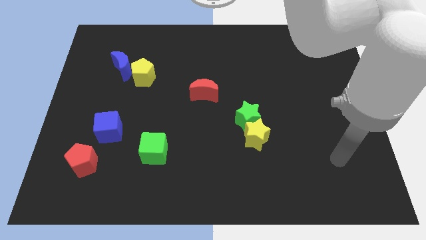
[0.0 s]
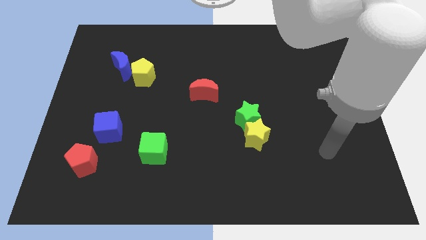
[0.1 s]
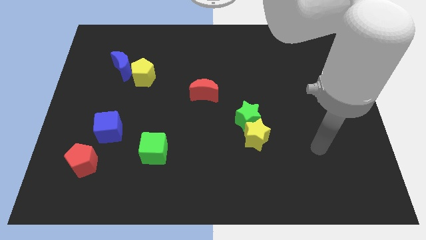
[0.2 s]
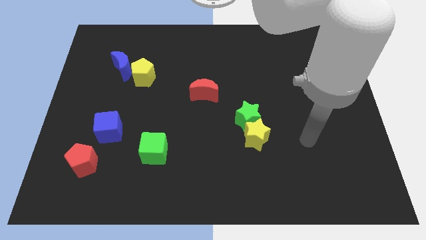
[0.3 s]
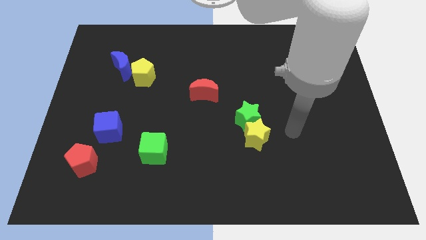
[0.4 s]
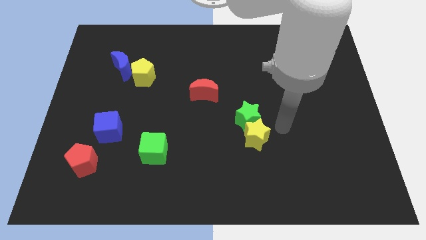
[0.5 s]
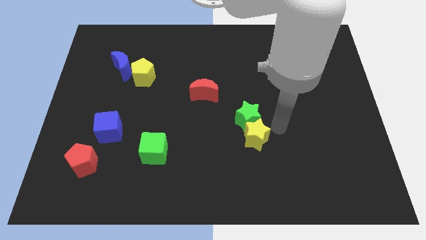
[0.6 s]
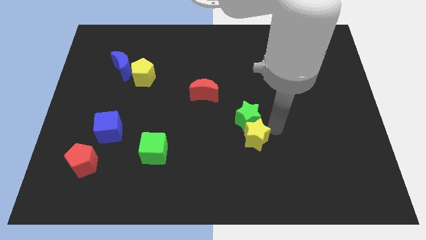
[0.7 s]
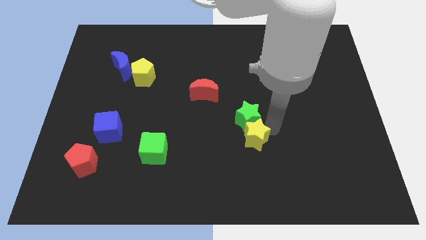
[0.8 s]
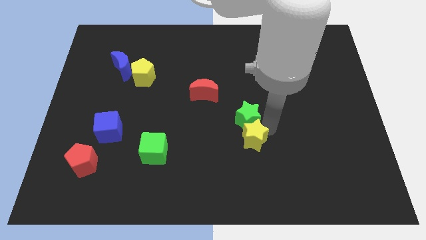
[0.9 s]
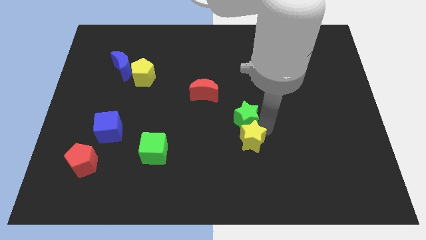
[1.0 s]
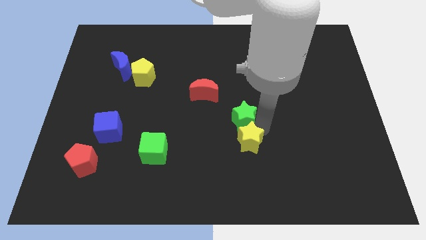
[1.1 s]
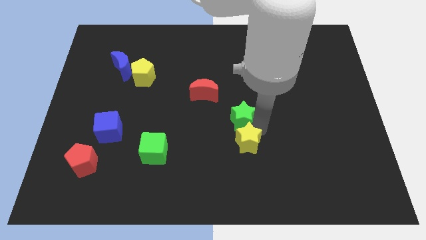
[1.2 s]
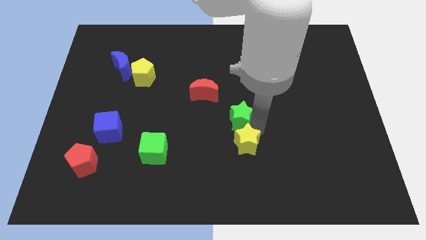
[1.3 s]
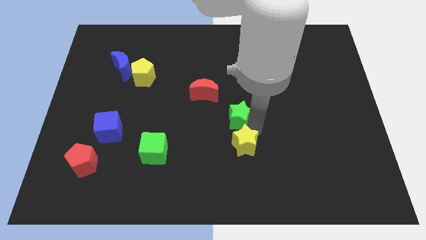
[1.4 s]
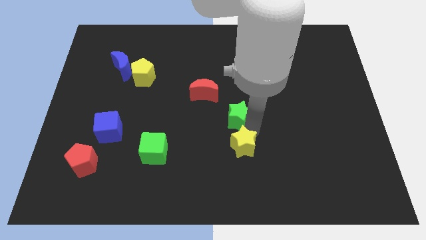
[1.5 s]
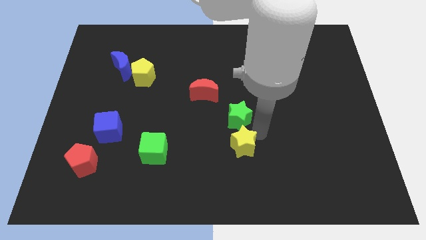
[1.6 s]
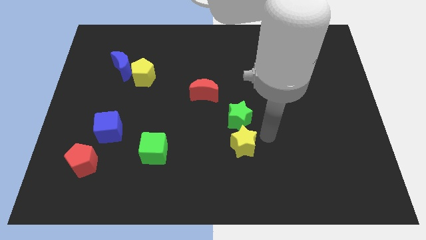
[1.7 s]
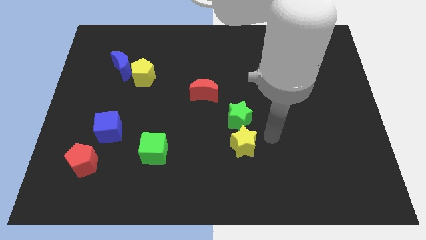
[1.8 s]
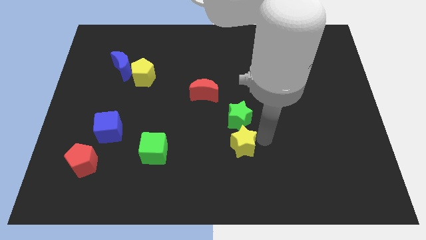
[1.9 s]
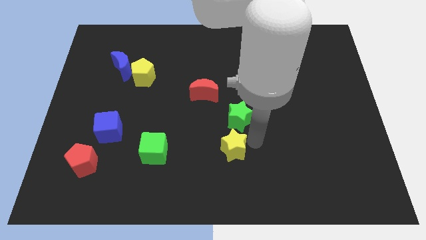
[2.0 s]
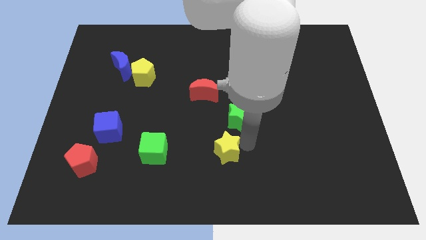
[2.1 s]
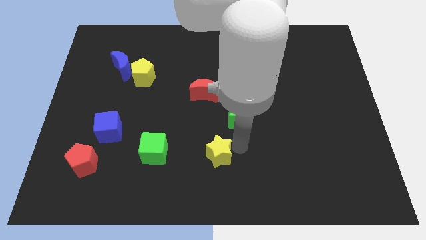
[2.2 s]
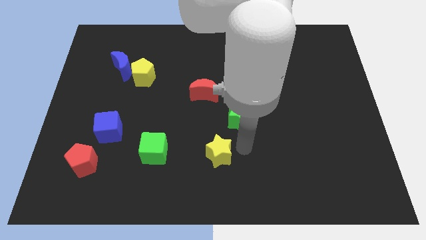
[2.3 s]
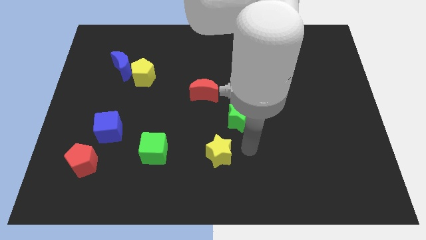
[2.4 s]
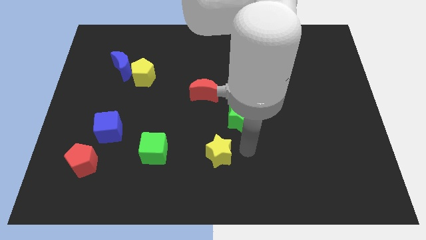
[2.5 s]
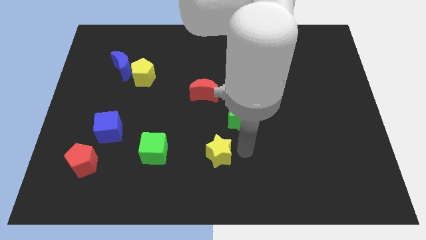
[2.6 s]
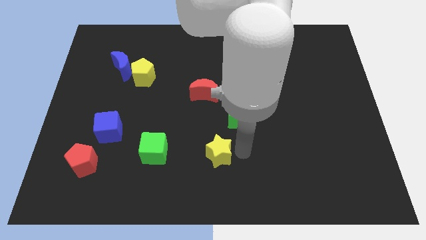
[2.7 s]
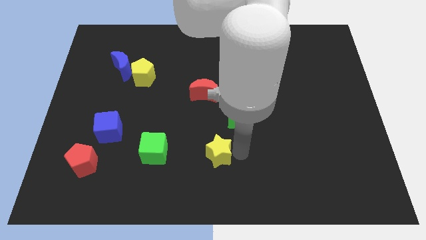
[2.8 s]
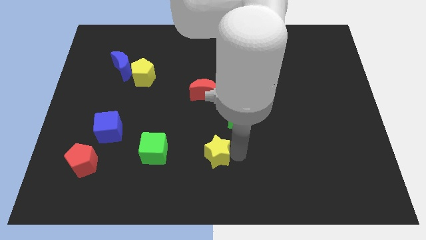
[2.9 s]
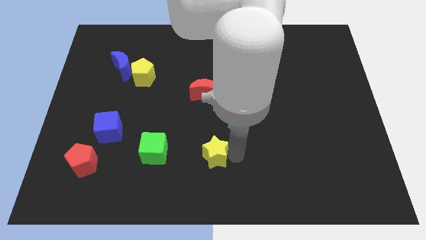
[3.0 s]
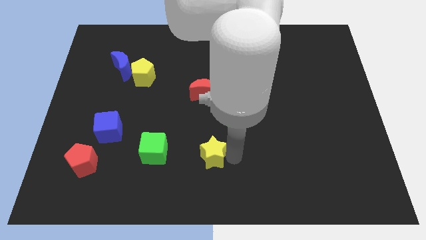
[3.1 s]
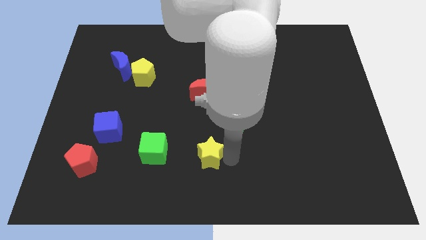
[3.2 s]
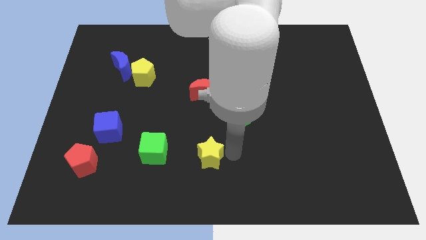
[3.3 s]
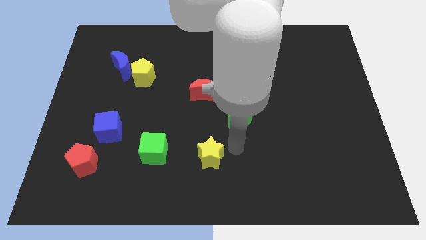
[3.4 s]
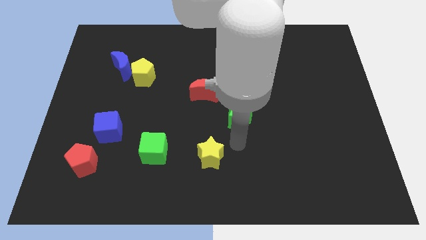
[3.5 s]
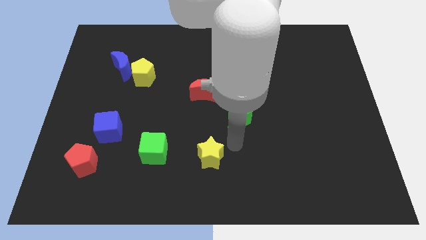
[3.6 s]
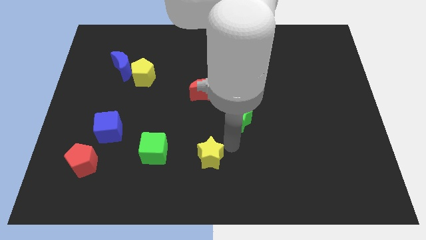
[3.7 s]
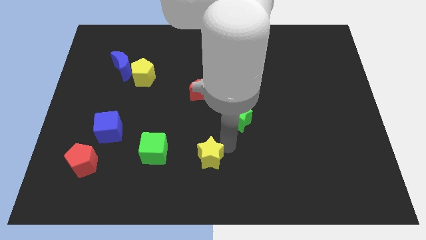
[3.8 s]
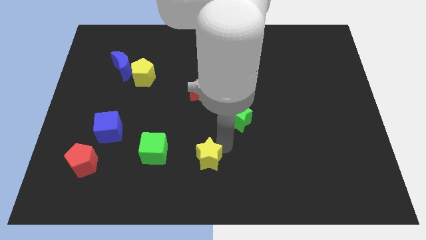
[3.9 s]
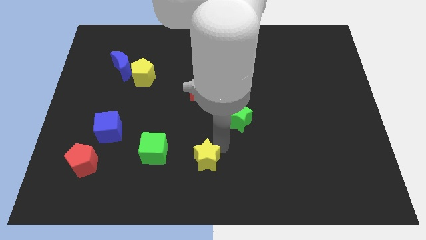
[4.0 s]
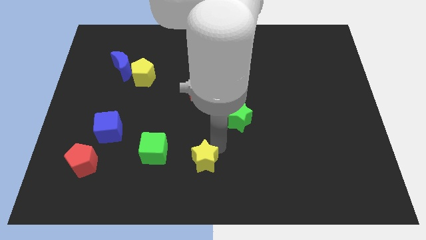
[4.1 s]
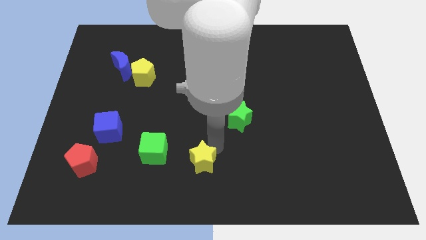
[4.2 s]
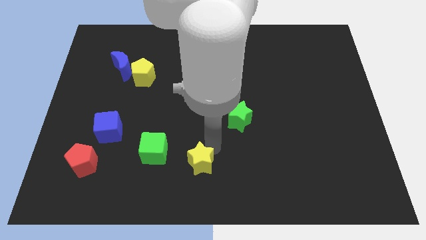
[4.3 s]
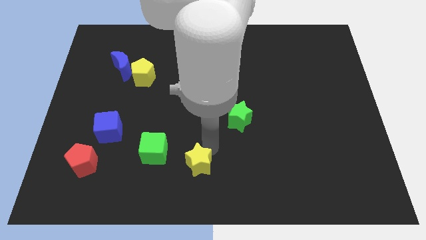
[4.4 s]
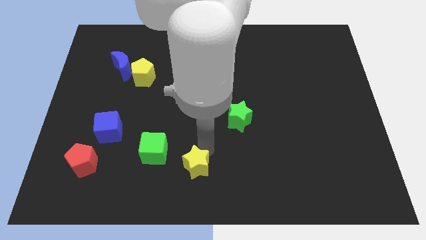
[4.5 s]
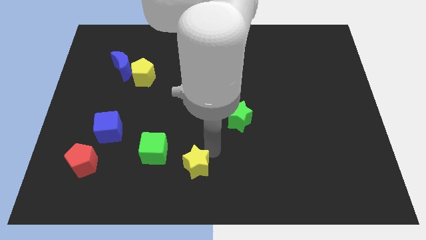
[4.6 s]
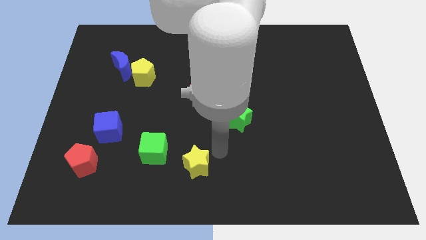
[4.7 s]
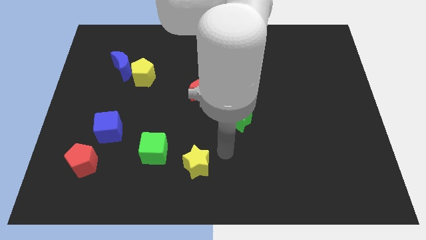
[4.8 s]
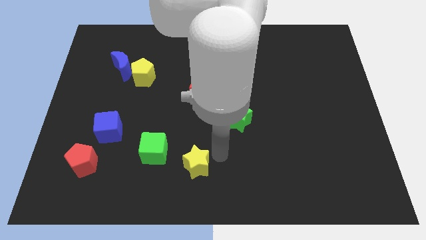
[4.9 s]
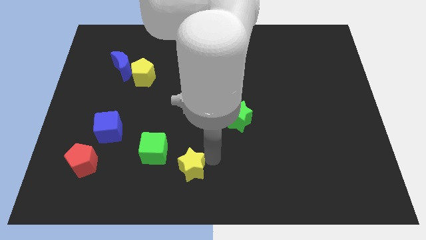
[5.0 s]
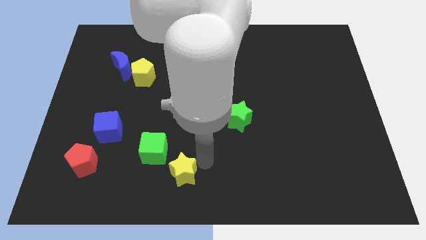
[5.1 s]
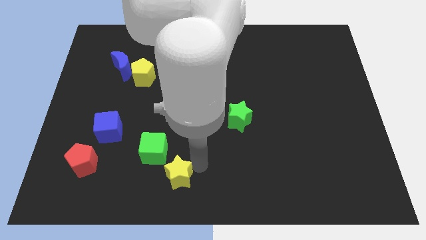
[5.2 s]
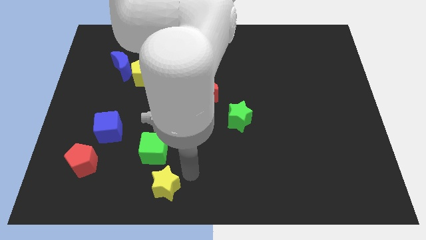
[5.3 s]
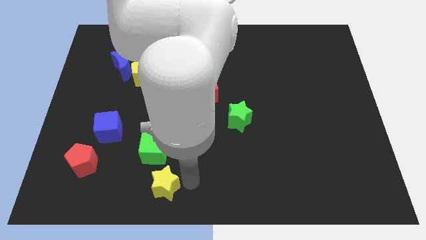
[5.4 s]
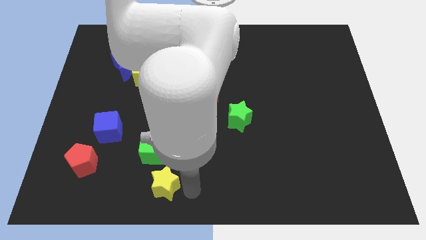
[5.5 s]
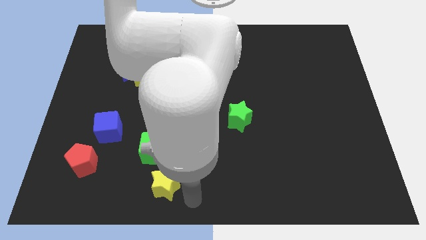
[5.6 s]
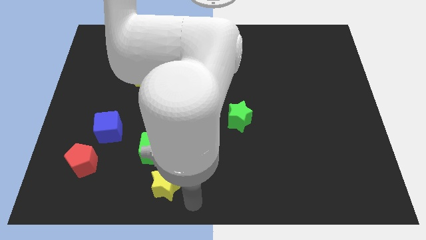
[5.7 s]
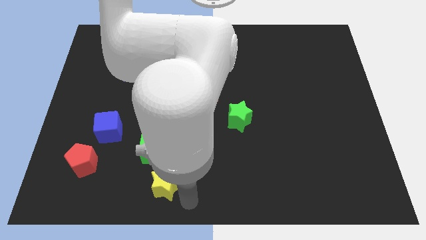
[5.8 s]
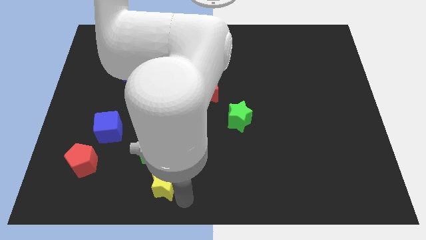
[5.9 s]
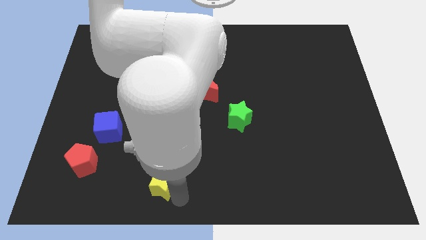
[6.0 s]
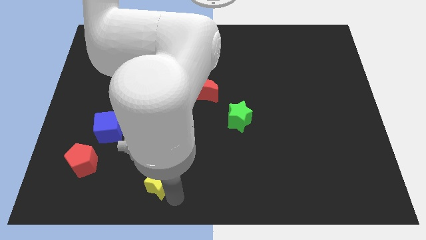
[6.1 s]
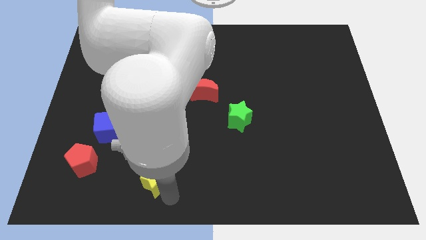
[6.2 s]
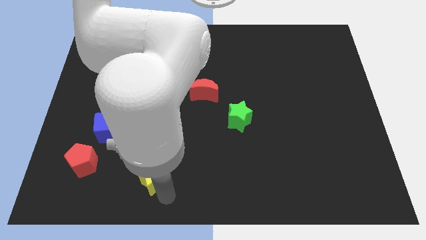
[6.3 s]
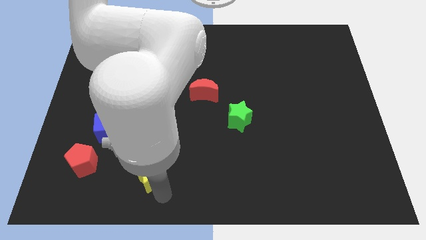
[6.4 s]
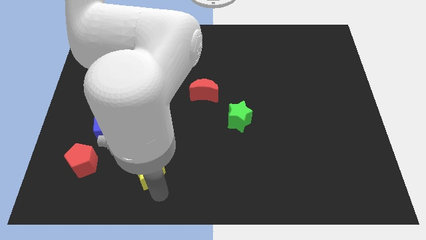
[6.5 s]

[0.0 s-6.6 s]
move the yellow star to the right of the red pentagon
